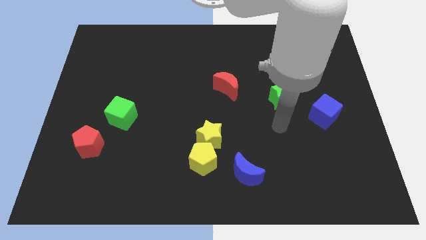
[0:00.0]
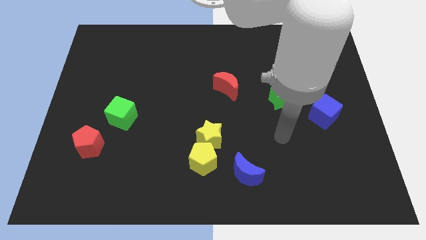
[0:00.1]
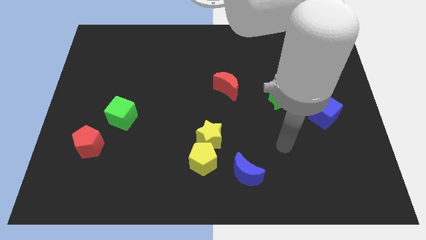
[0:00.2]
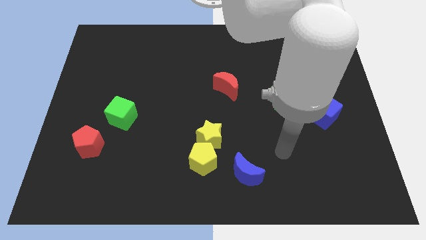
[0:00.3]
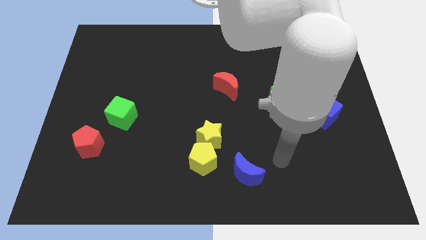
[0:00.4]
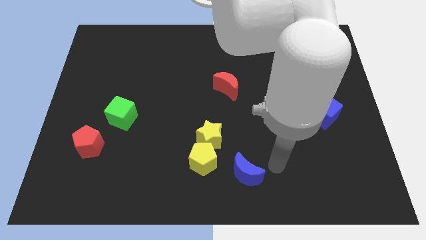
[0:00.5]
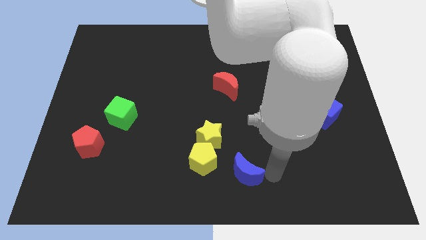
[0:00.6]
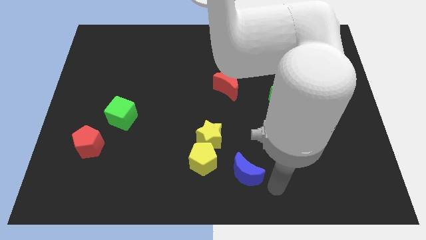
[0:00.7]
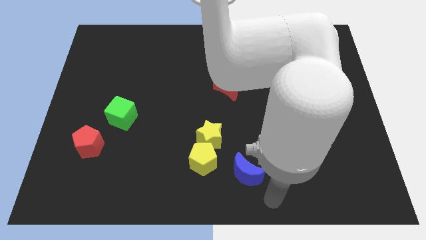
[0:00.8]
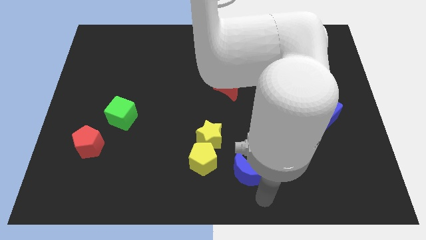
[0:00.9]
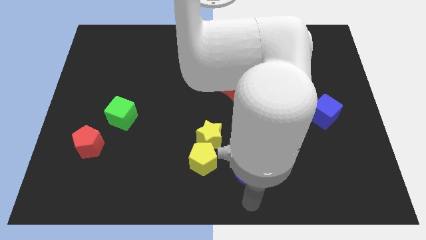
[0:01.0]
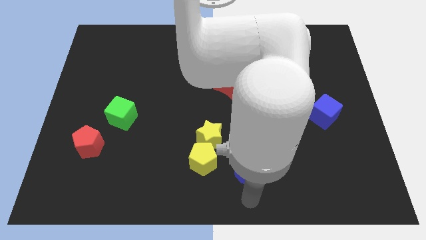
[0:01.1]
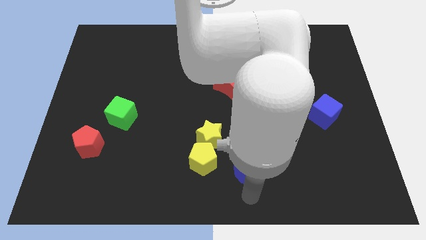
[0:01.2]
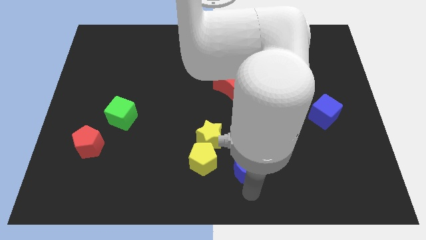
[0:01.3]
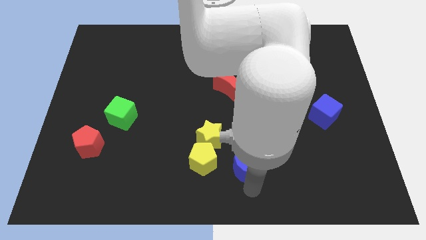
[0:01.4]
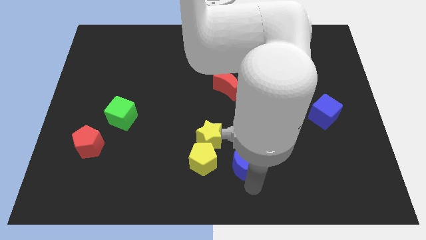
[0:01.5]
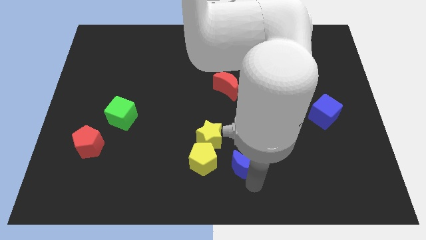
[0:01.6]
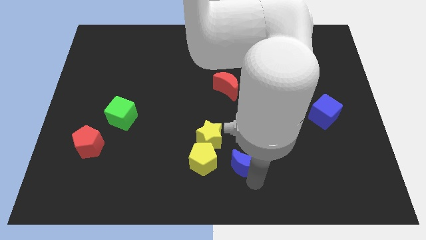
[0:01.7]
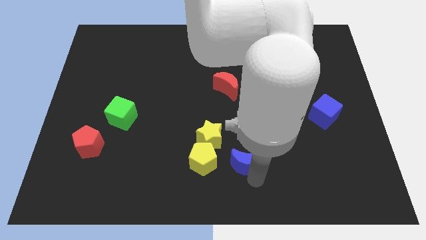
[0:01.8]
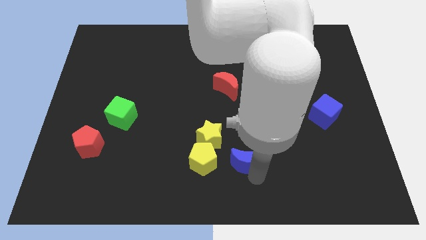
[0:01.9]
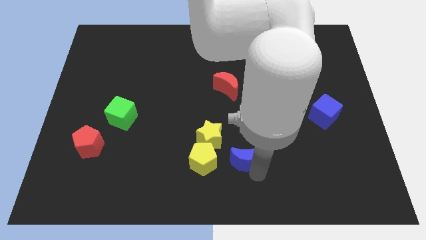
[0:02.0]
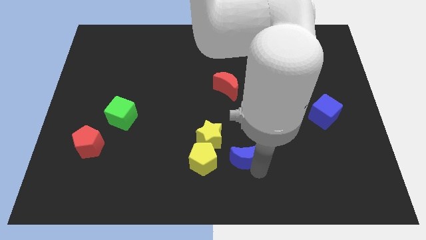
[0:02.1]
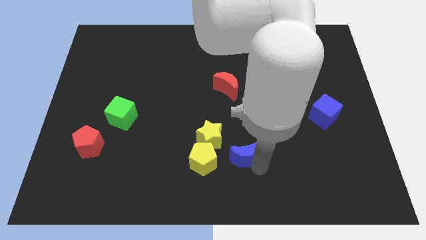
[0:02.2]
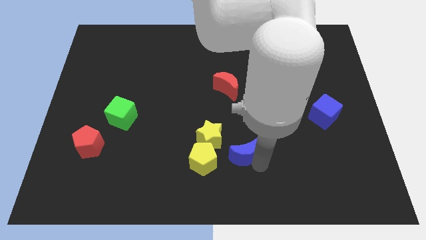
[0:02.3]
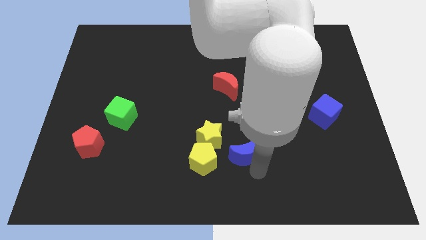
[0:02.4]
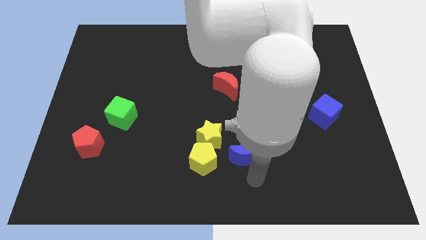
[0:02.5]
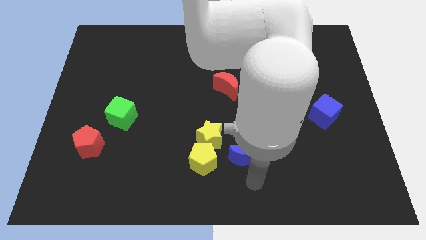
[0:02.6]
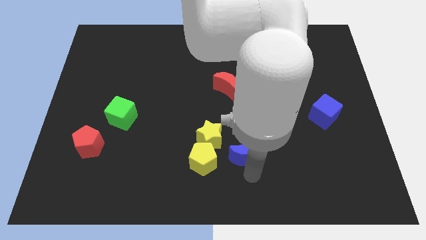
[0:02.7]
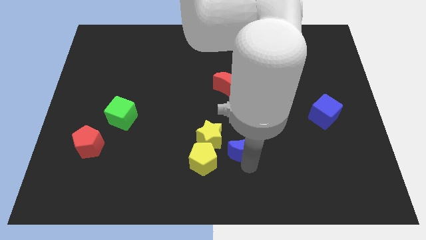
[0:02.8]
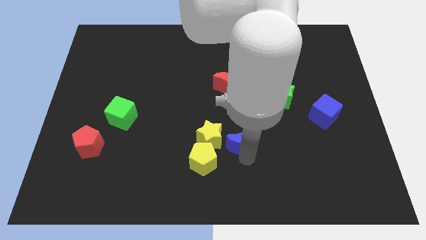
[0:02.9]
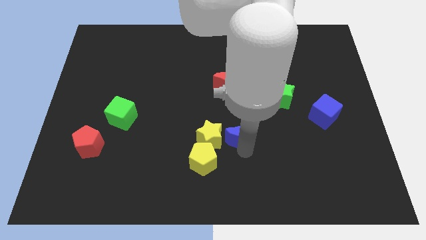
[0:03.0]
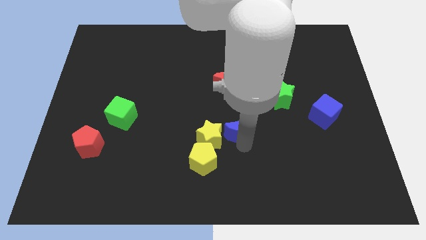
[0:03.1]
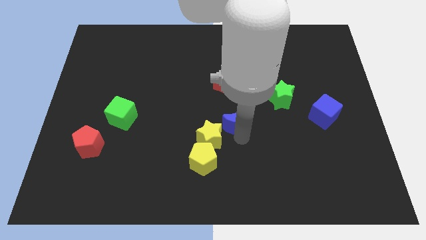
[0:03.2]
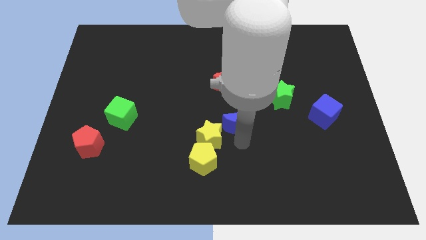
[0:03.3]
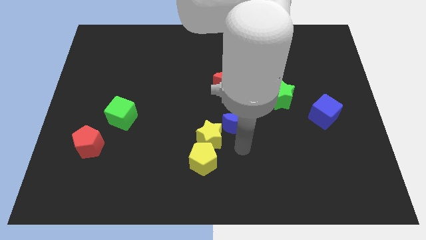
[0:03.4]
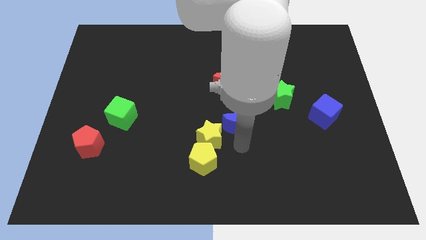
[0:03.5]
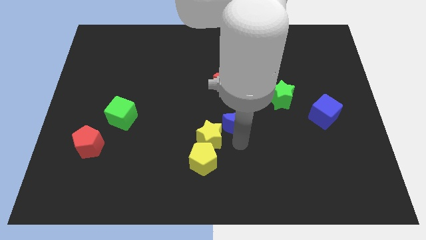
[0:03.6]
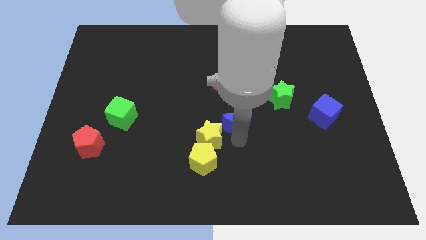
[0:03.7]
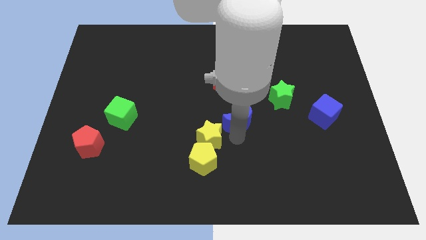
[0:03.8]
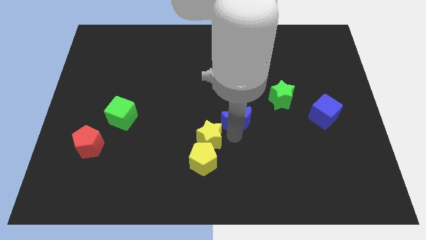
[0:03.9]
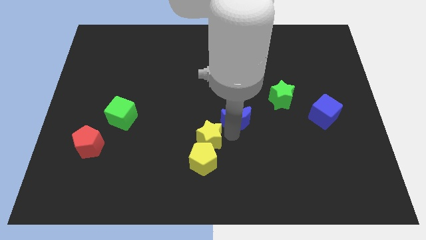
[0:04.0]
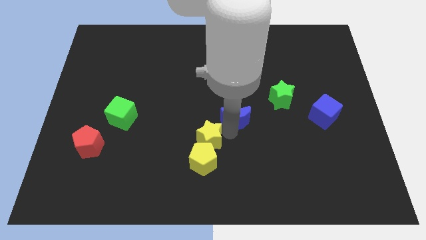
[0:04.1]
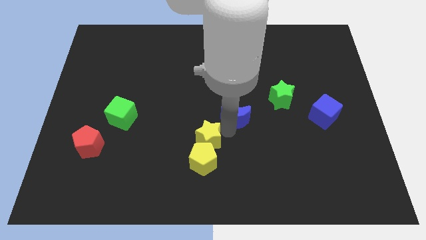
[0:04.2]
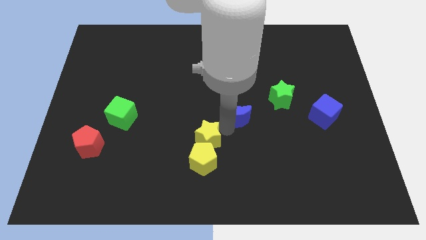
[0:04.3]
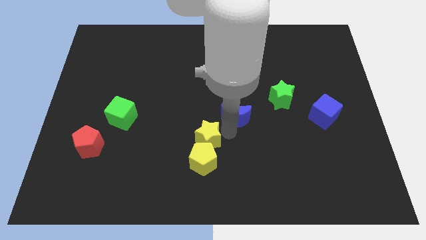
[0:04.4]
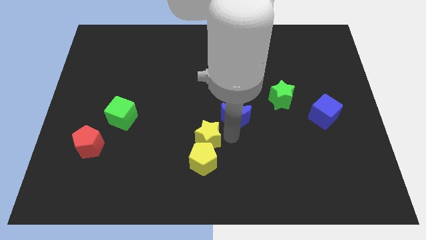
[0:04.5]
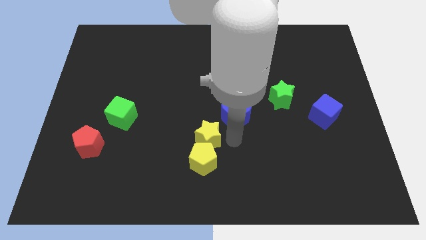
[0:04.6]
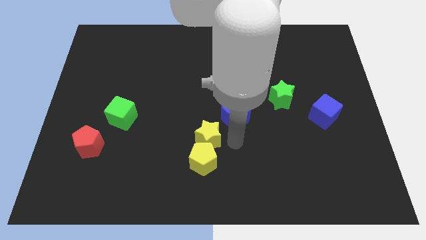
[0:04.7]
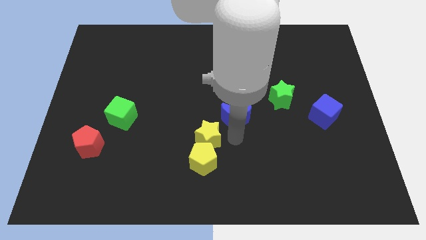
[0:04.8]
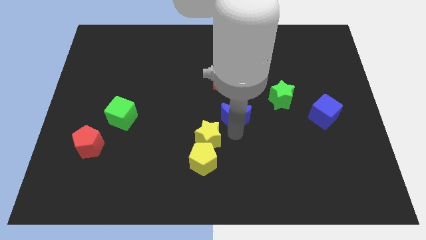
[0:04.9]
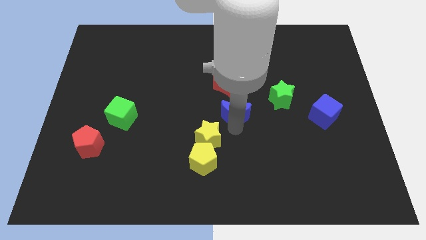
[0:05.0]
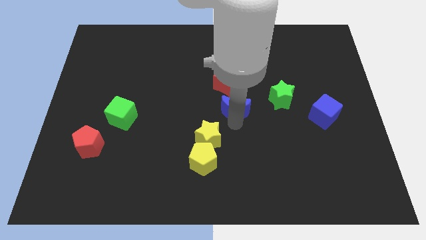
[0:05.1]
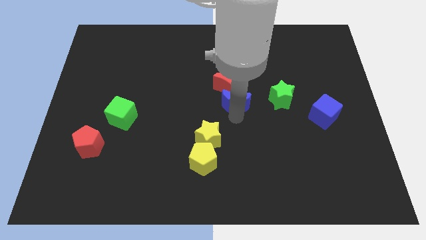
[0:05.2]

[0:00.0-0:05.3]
slide the blue moon towards the red moon

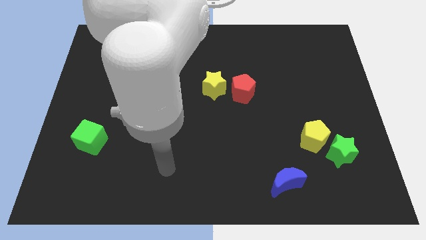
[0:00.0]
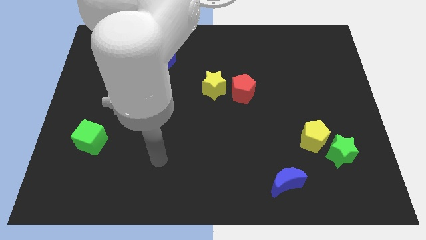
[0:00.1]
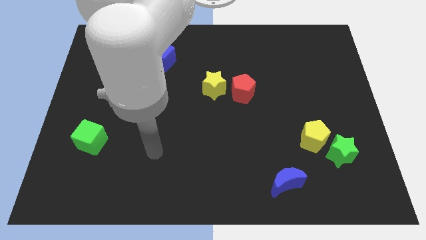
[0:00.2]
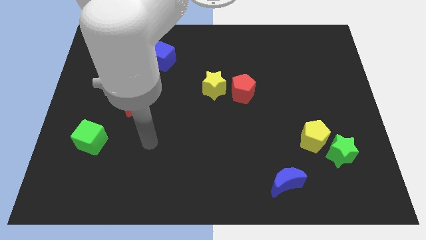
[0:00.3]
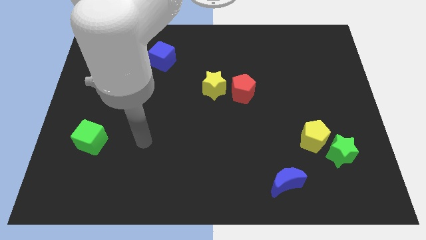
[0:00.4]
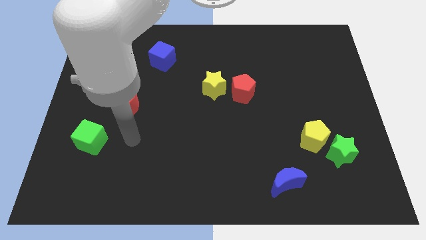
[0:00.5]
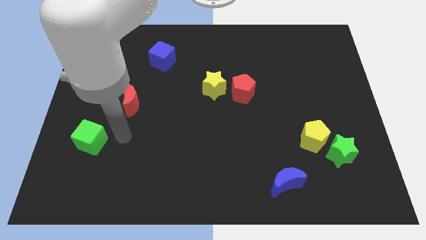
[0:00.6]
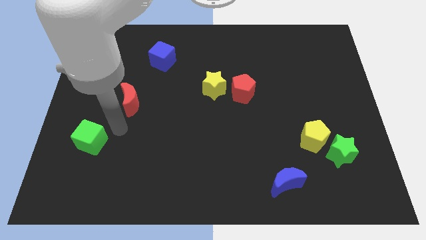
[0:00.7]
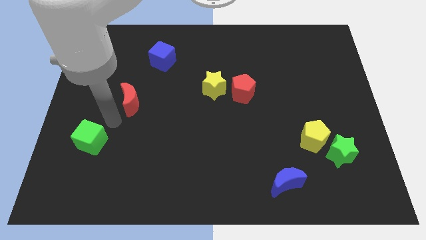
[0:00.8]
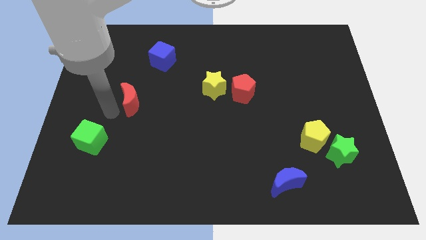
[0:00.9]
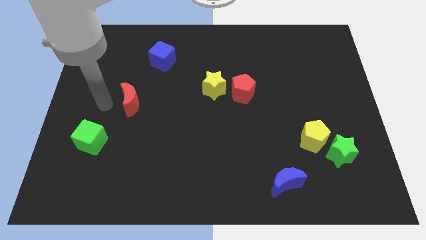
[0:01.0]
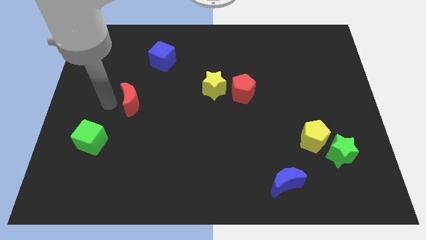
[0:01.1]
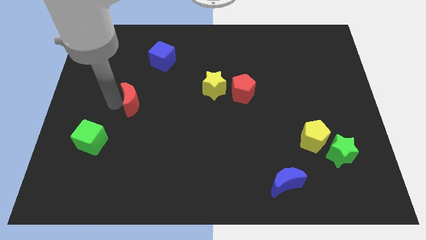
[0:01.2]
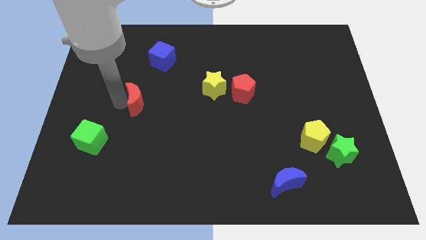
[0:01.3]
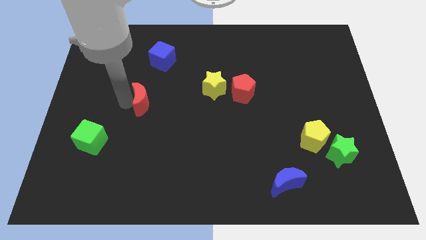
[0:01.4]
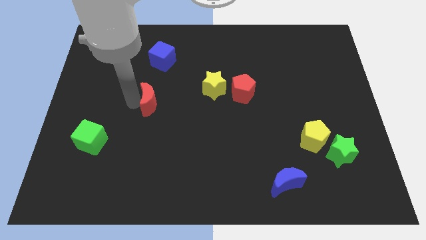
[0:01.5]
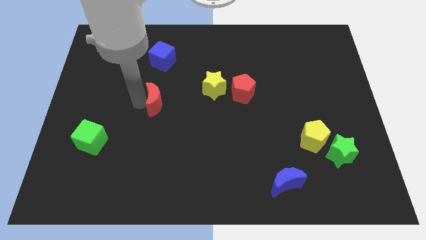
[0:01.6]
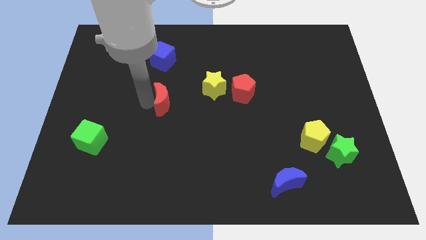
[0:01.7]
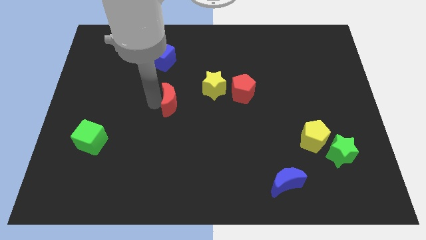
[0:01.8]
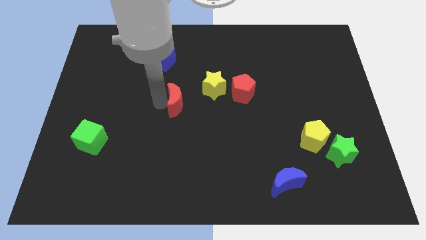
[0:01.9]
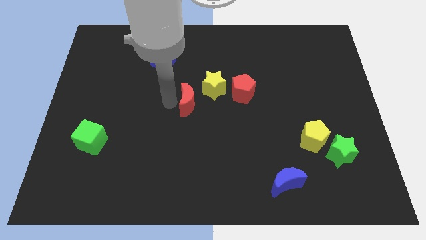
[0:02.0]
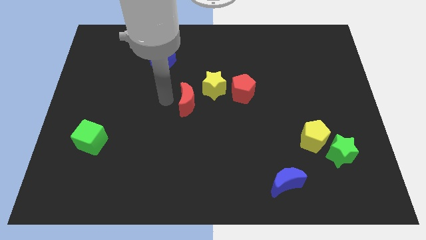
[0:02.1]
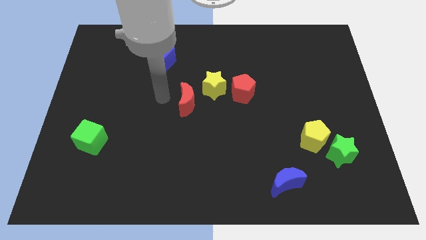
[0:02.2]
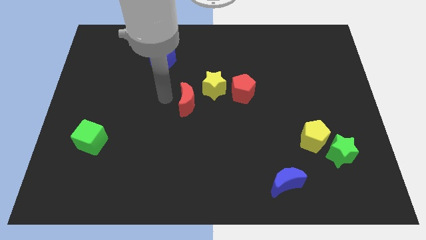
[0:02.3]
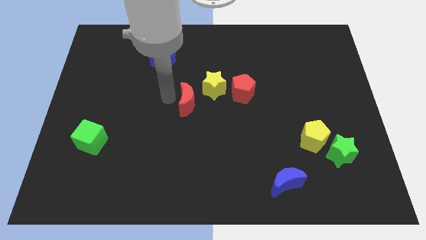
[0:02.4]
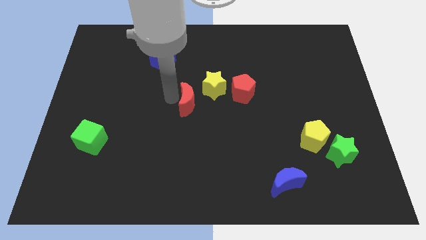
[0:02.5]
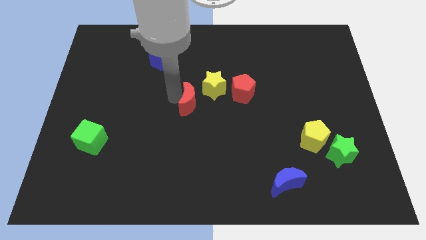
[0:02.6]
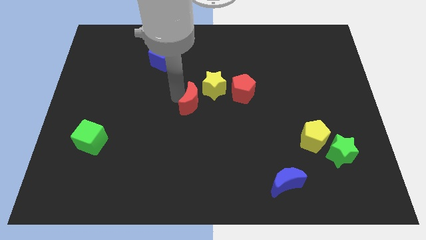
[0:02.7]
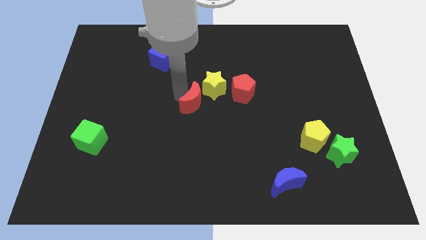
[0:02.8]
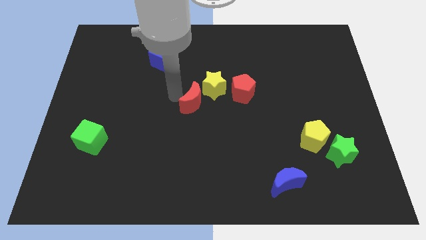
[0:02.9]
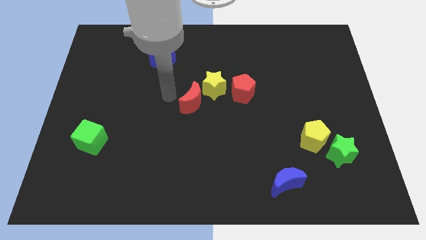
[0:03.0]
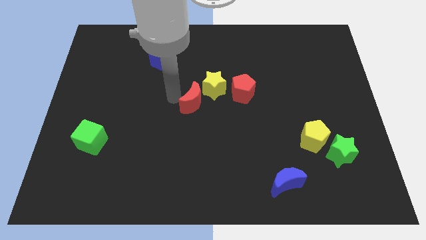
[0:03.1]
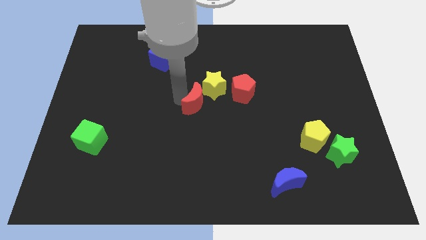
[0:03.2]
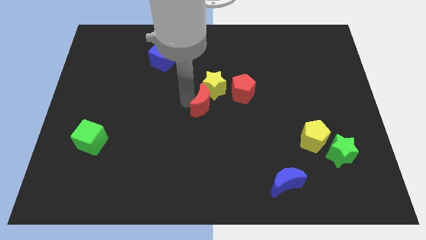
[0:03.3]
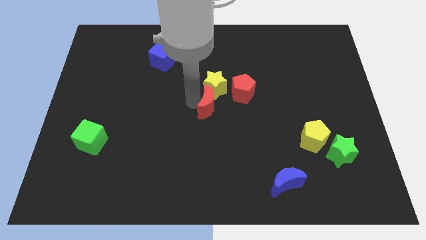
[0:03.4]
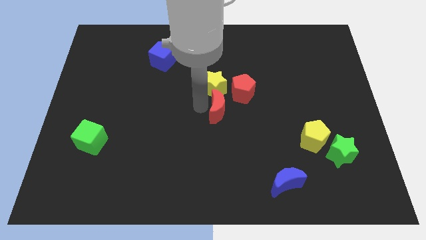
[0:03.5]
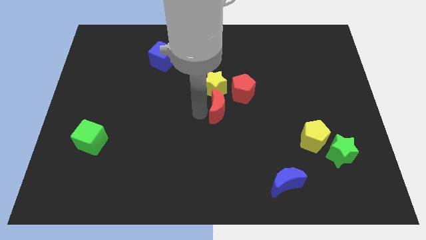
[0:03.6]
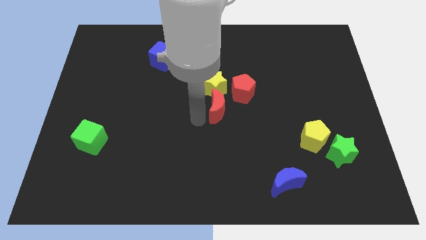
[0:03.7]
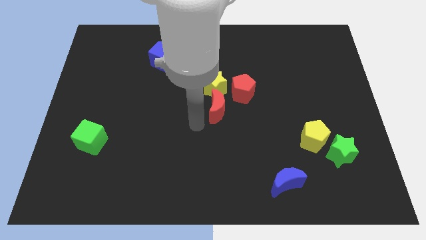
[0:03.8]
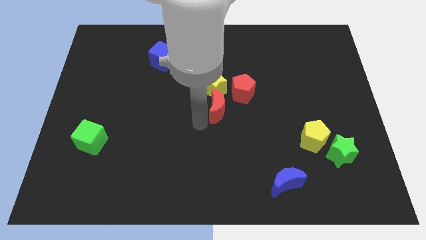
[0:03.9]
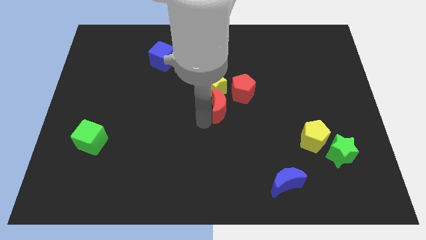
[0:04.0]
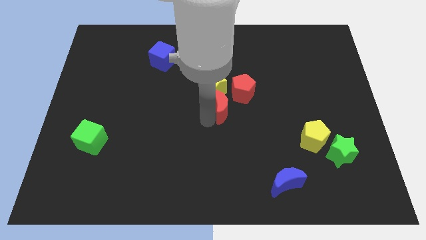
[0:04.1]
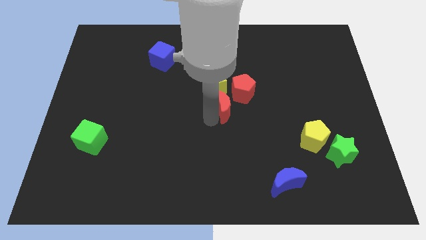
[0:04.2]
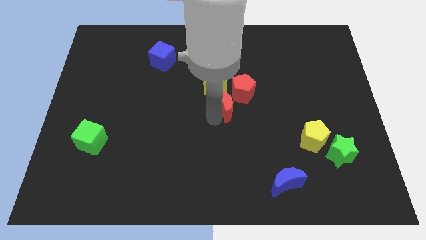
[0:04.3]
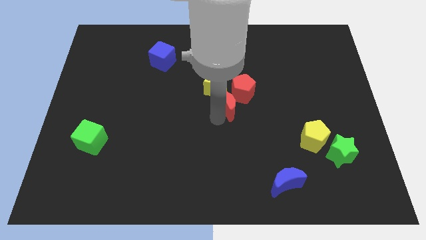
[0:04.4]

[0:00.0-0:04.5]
move the red moon close to the red pentagon
